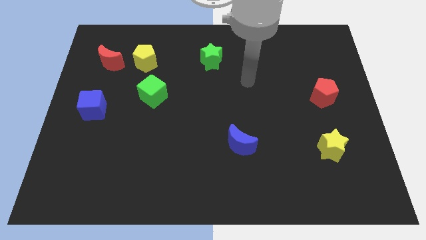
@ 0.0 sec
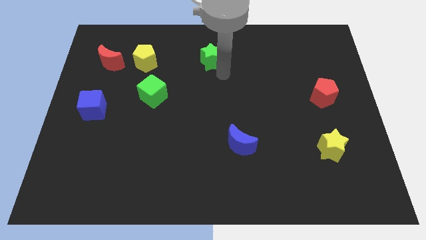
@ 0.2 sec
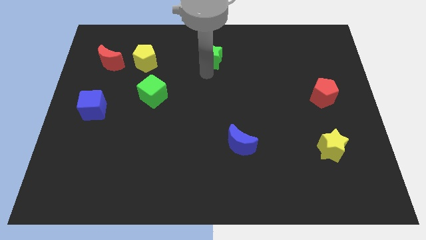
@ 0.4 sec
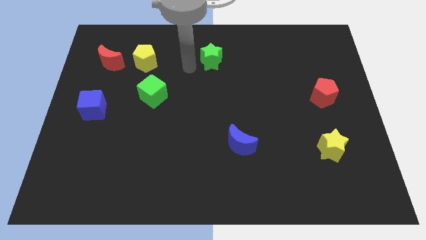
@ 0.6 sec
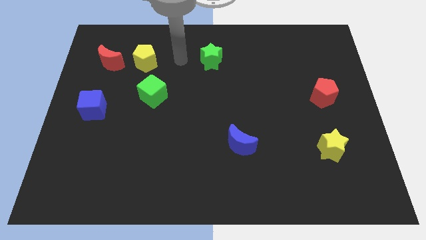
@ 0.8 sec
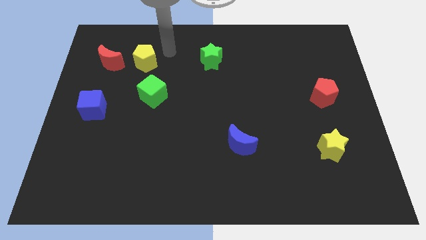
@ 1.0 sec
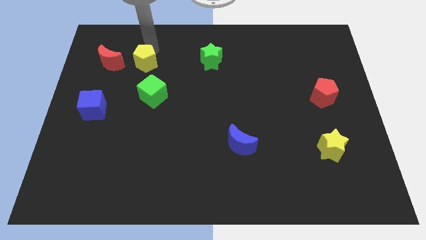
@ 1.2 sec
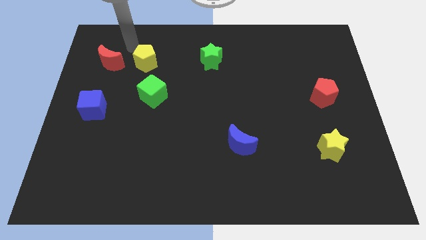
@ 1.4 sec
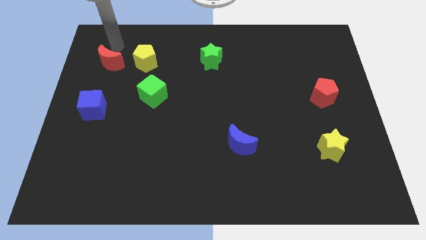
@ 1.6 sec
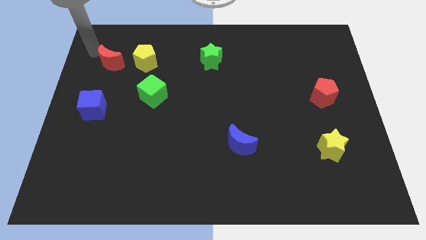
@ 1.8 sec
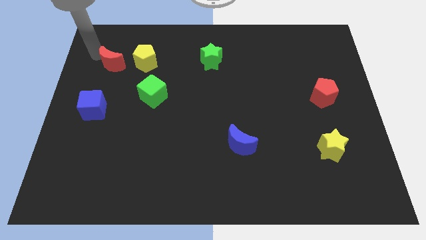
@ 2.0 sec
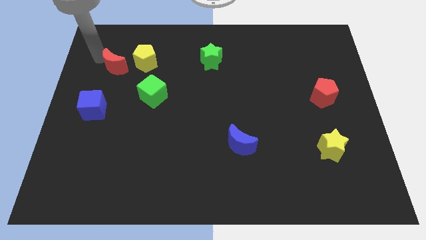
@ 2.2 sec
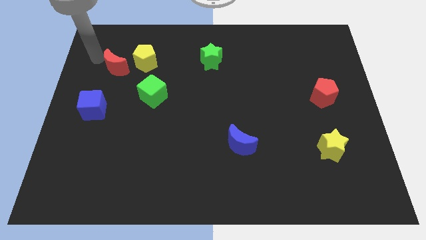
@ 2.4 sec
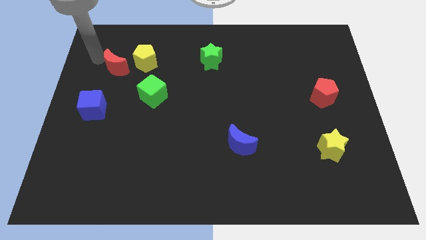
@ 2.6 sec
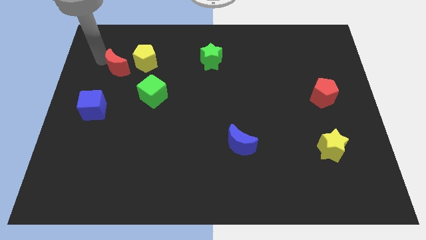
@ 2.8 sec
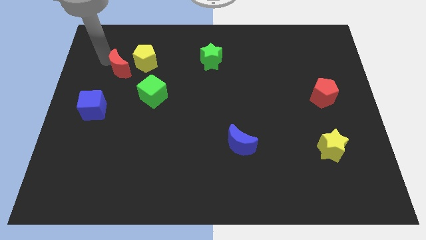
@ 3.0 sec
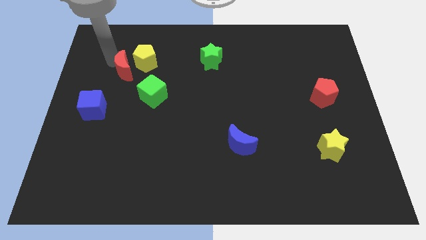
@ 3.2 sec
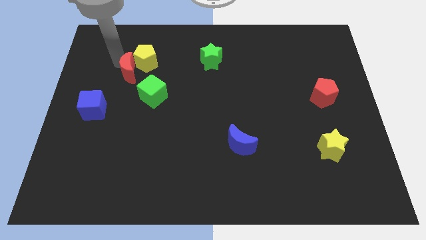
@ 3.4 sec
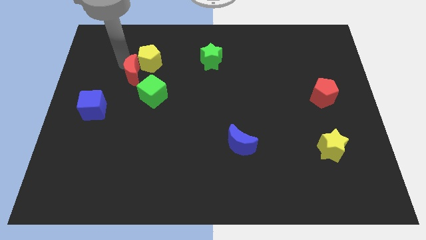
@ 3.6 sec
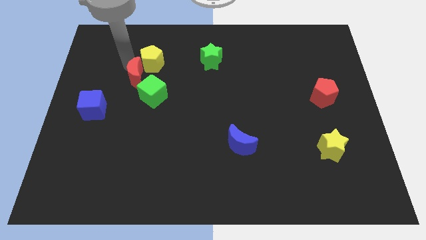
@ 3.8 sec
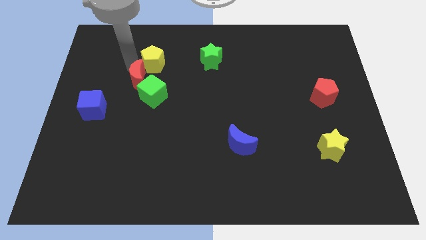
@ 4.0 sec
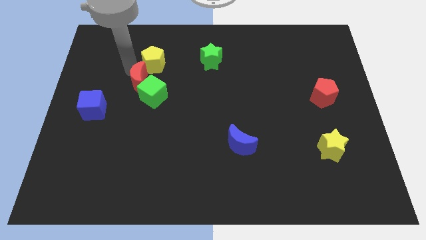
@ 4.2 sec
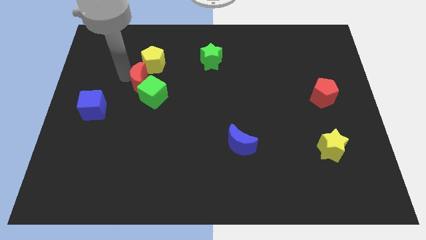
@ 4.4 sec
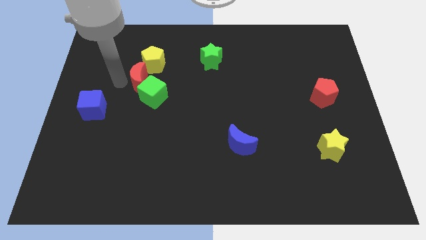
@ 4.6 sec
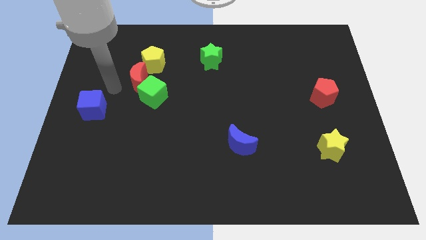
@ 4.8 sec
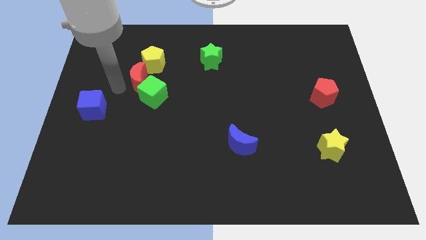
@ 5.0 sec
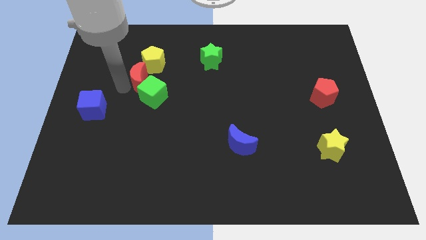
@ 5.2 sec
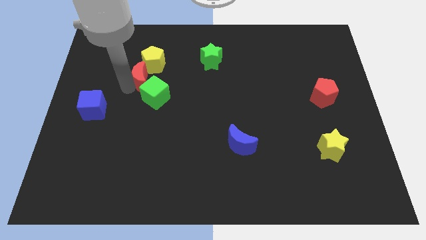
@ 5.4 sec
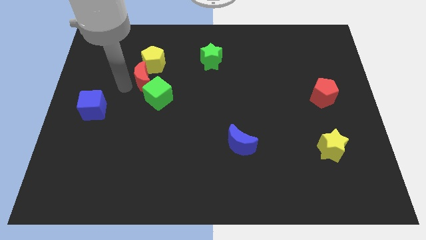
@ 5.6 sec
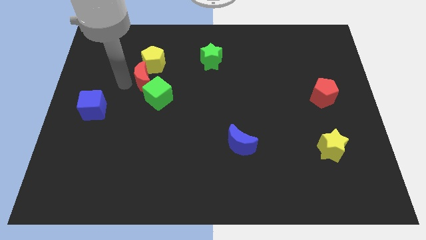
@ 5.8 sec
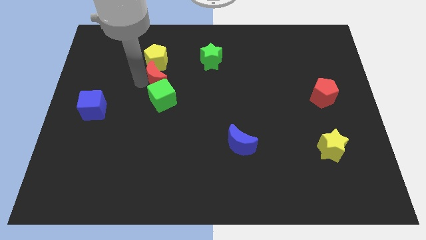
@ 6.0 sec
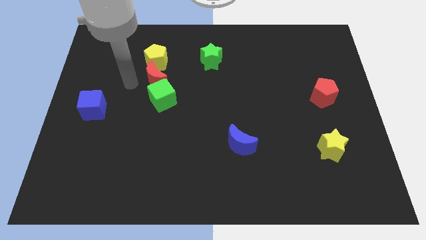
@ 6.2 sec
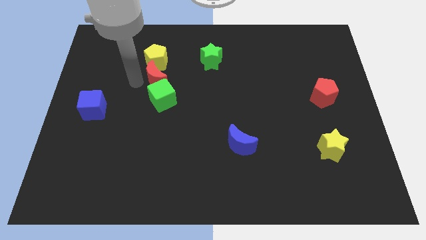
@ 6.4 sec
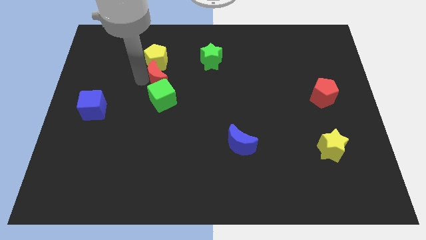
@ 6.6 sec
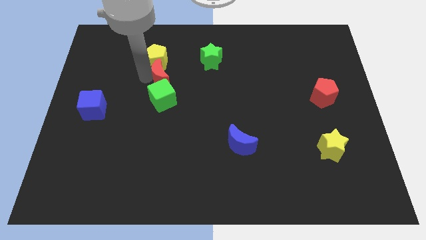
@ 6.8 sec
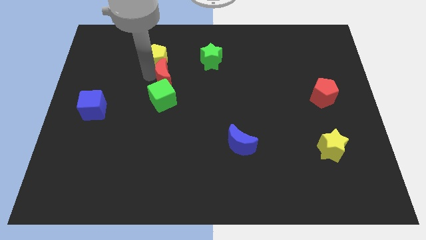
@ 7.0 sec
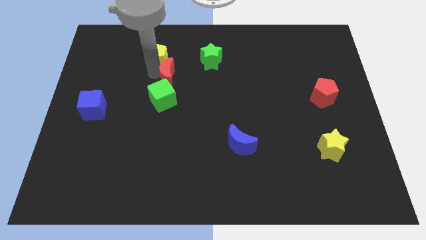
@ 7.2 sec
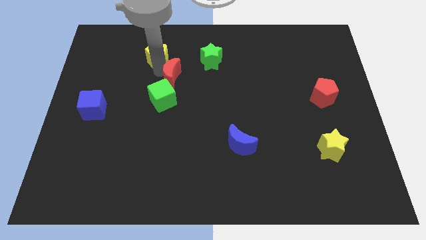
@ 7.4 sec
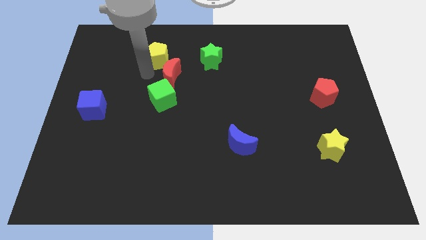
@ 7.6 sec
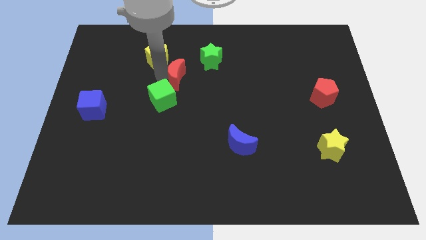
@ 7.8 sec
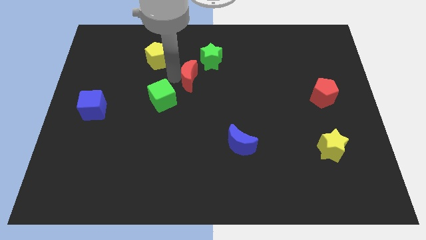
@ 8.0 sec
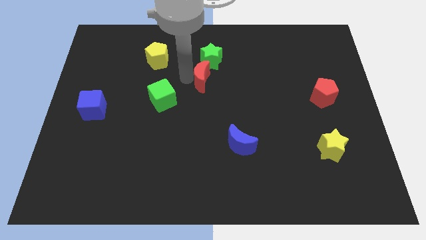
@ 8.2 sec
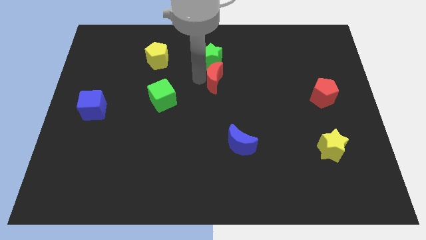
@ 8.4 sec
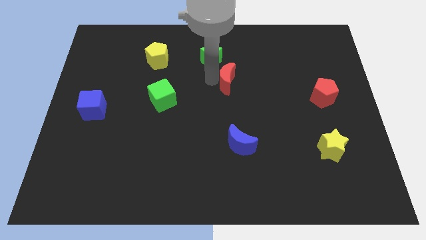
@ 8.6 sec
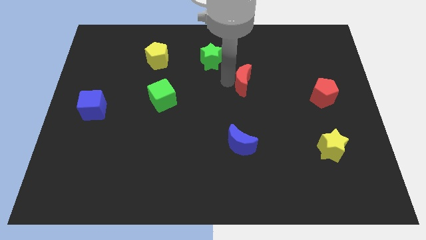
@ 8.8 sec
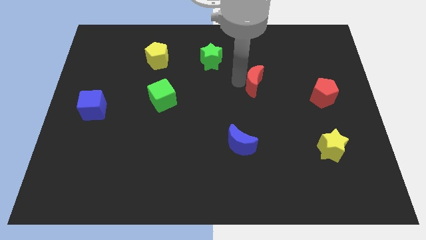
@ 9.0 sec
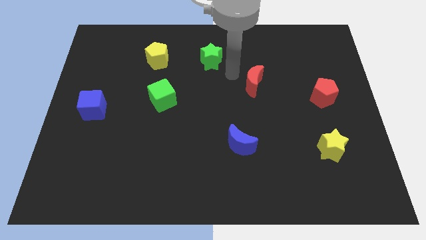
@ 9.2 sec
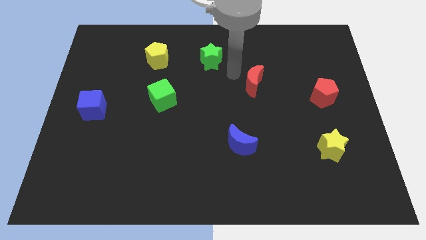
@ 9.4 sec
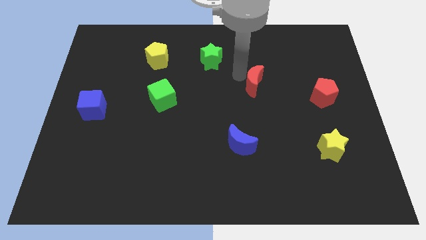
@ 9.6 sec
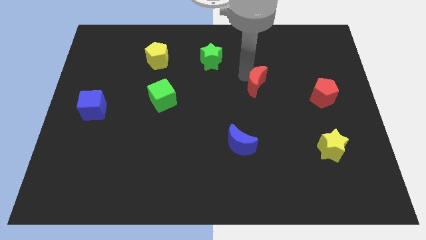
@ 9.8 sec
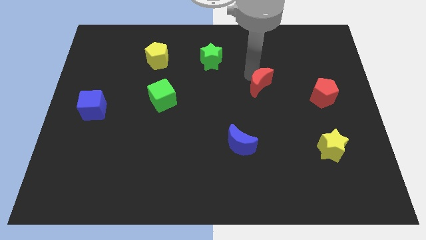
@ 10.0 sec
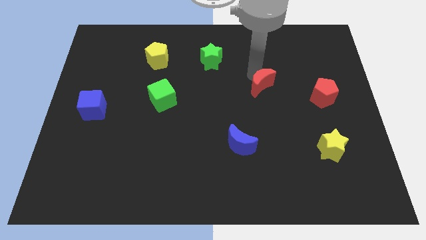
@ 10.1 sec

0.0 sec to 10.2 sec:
put the red moon to the left of the red pentagon

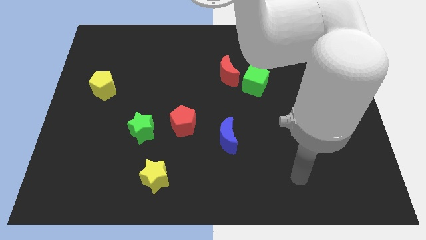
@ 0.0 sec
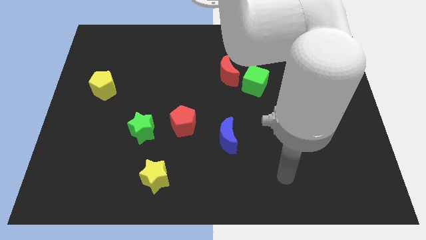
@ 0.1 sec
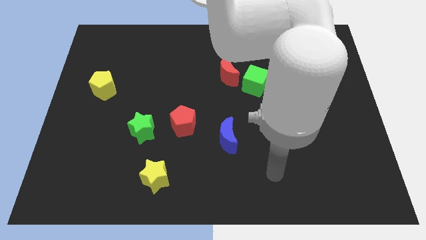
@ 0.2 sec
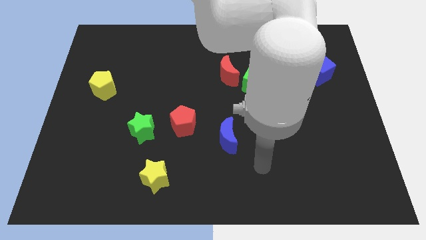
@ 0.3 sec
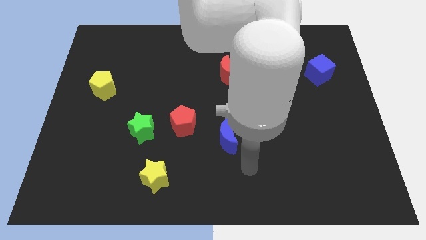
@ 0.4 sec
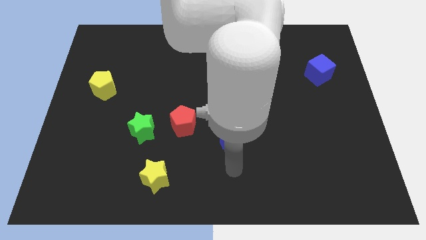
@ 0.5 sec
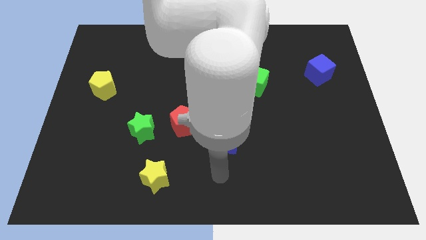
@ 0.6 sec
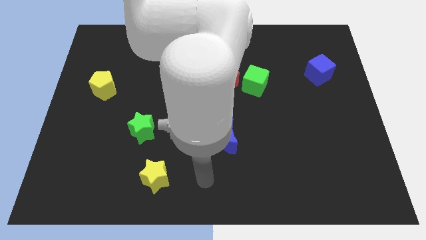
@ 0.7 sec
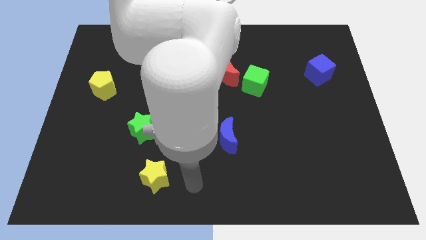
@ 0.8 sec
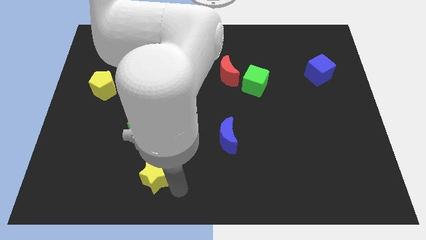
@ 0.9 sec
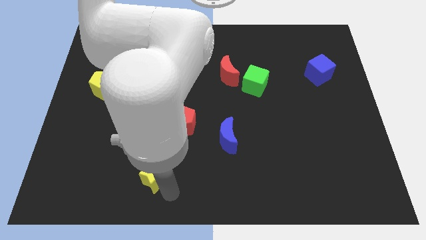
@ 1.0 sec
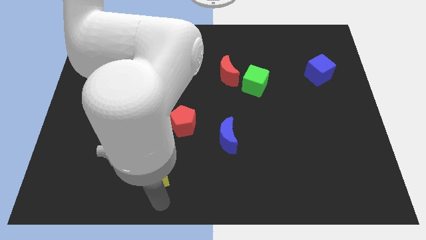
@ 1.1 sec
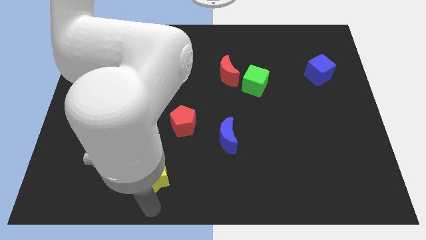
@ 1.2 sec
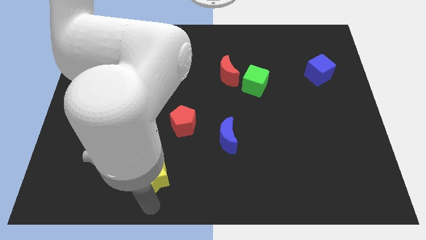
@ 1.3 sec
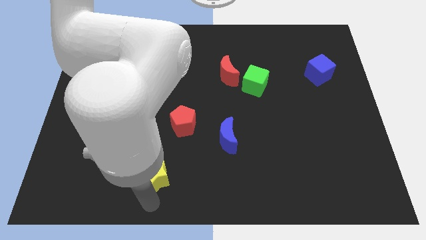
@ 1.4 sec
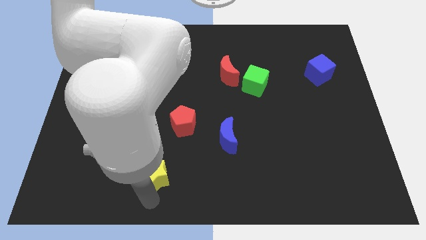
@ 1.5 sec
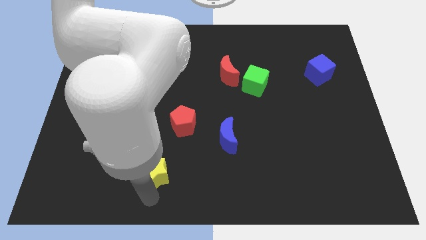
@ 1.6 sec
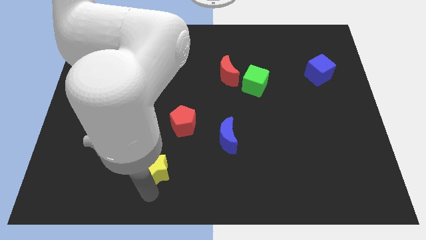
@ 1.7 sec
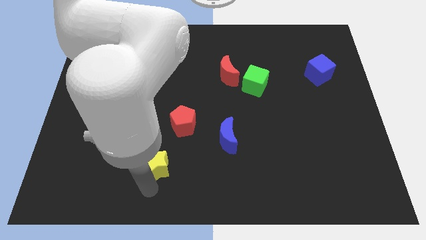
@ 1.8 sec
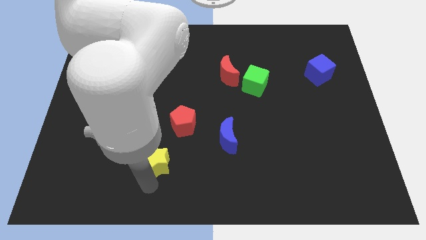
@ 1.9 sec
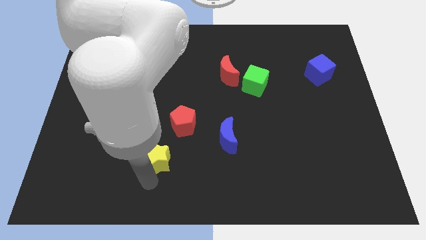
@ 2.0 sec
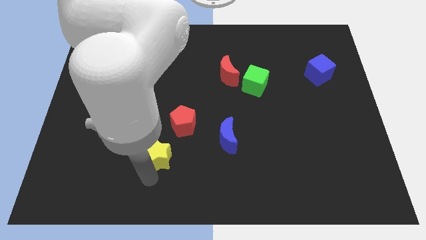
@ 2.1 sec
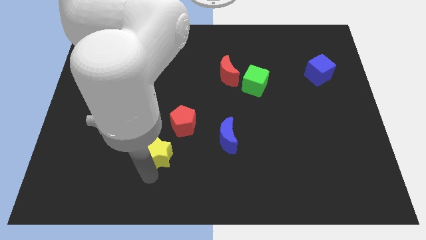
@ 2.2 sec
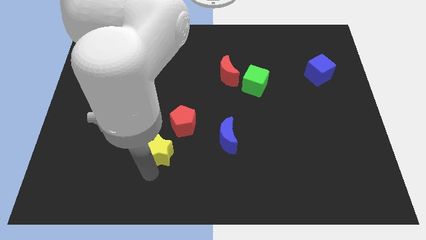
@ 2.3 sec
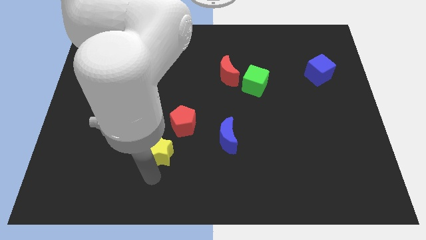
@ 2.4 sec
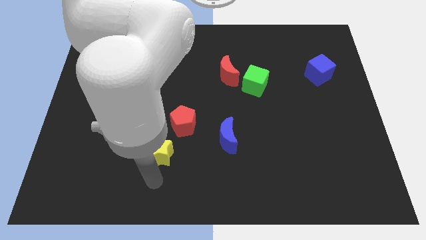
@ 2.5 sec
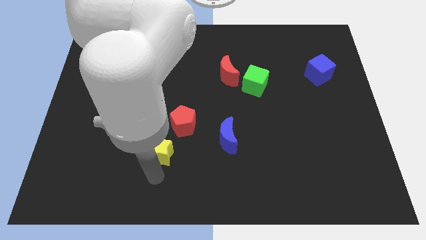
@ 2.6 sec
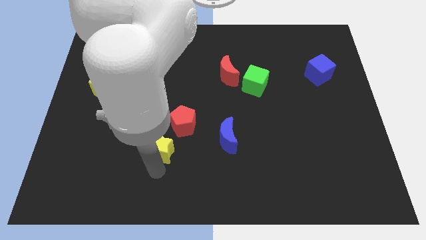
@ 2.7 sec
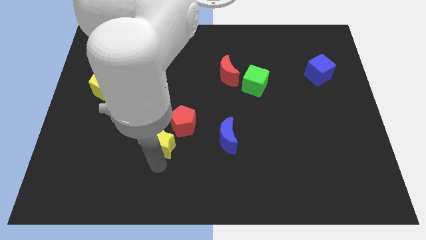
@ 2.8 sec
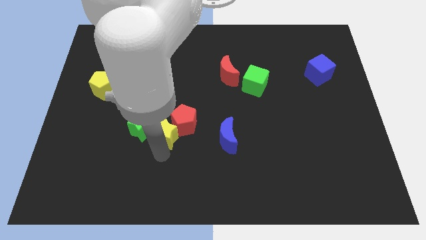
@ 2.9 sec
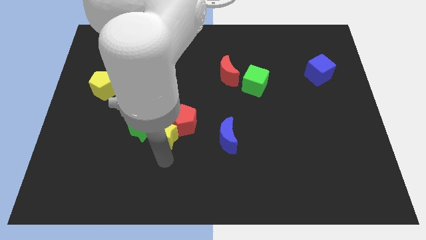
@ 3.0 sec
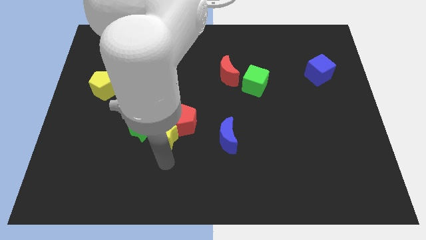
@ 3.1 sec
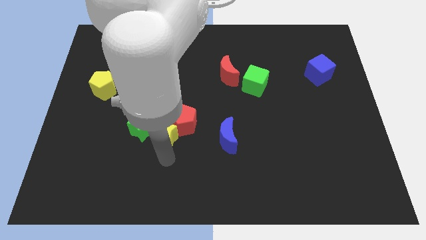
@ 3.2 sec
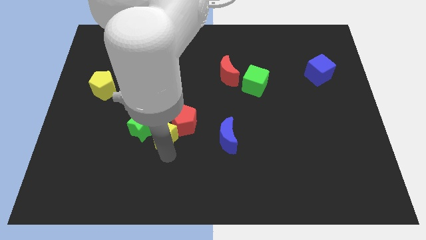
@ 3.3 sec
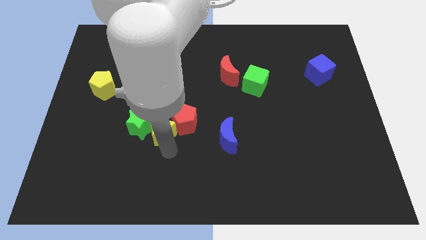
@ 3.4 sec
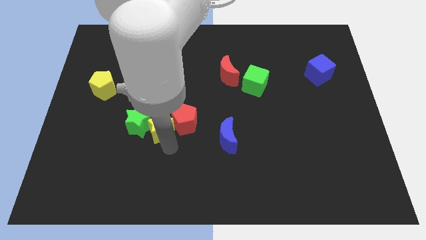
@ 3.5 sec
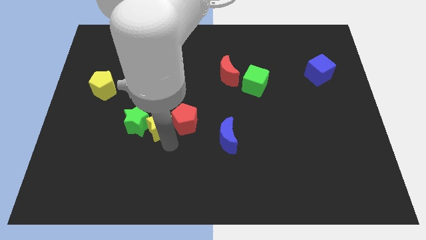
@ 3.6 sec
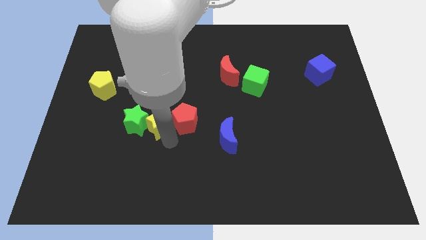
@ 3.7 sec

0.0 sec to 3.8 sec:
slide the yellow star to the top left of the red pentagon

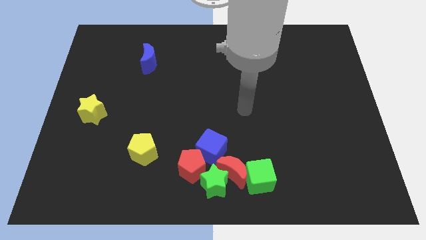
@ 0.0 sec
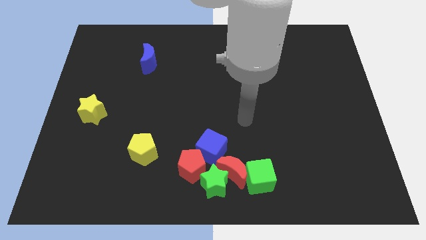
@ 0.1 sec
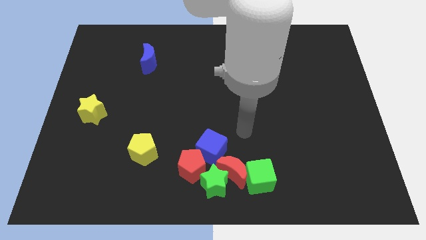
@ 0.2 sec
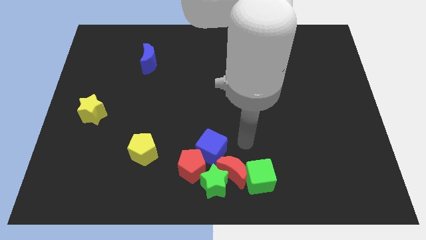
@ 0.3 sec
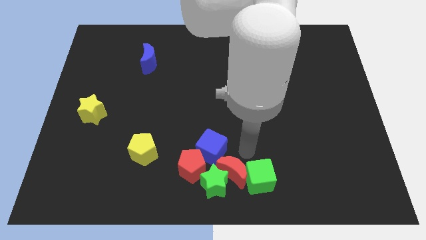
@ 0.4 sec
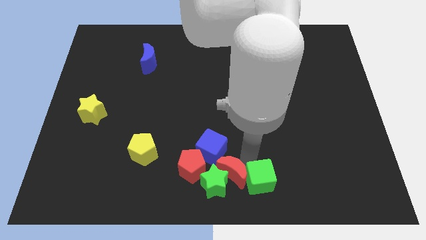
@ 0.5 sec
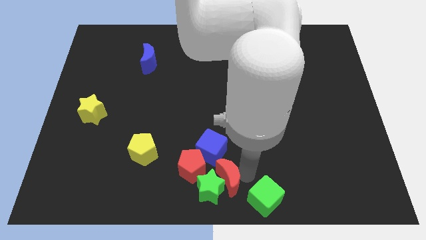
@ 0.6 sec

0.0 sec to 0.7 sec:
move the green star to the top left side of the red moon
